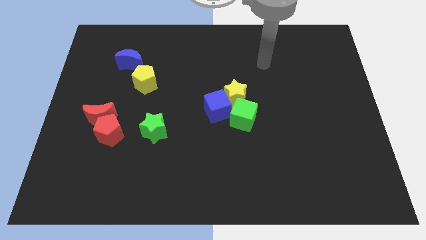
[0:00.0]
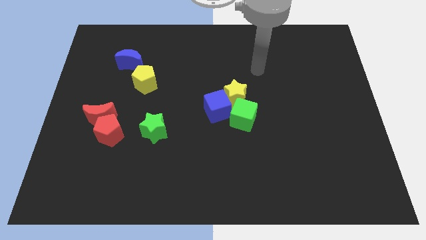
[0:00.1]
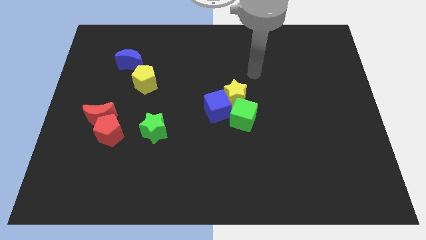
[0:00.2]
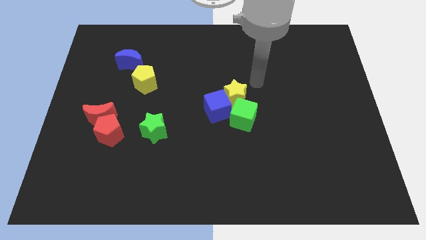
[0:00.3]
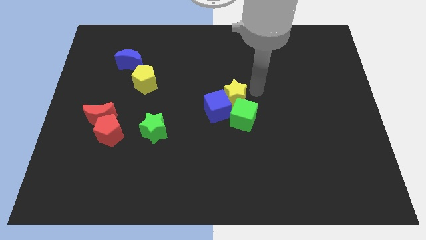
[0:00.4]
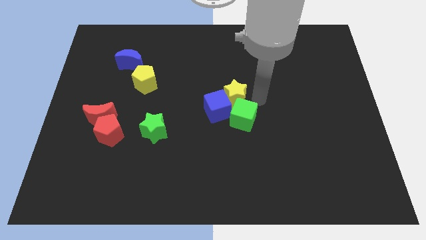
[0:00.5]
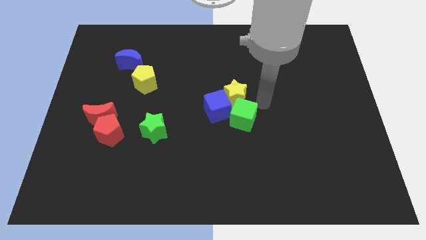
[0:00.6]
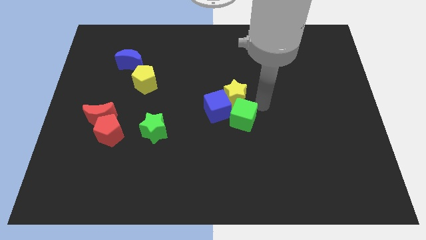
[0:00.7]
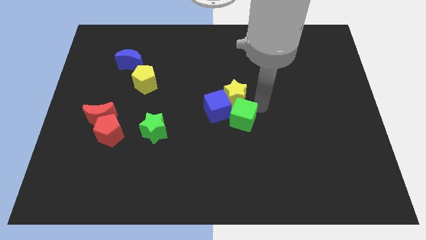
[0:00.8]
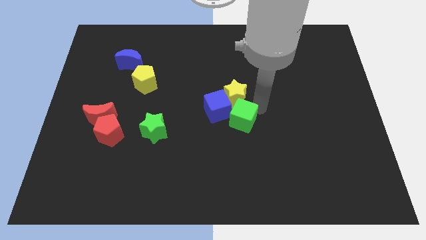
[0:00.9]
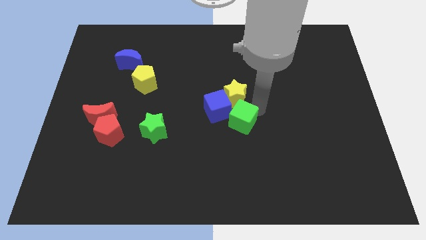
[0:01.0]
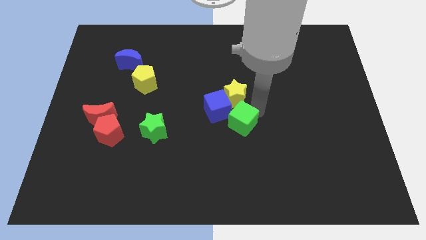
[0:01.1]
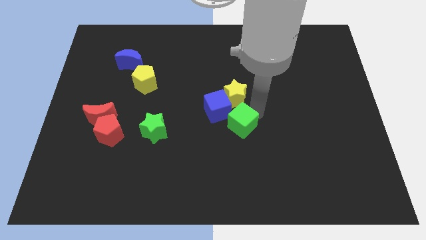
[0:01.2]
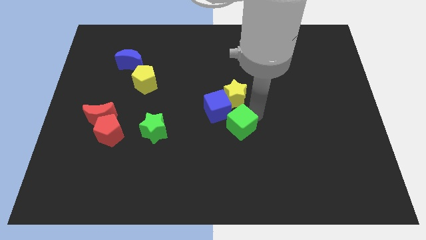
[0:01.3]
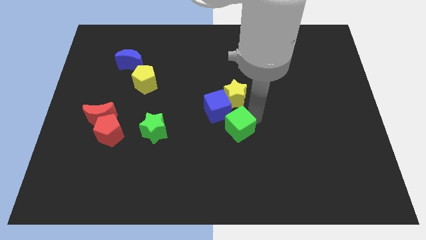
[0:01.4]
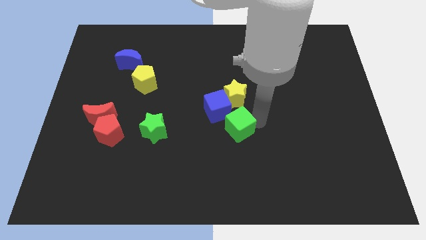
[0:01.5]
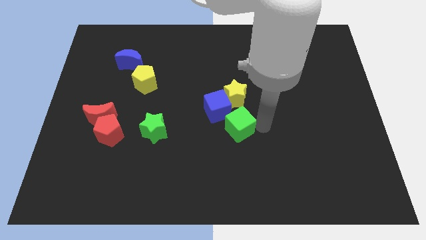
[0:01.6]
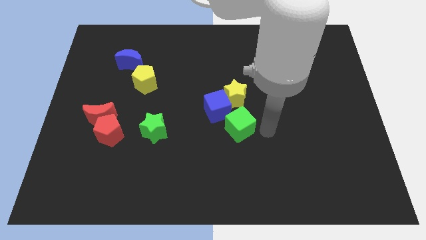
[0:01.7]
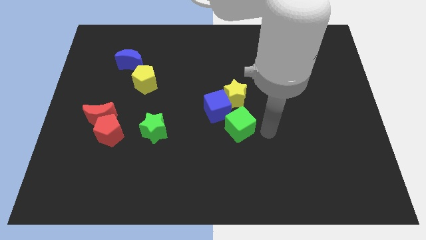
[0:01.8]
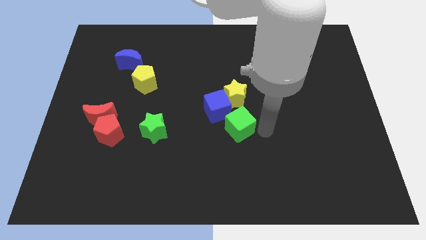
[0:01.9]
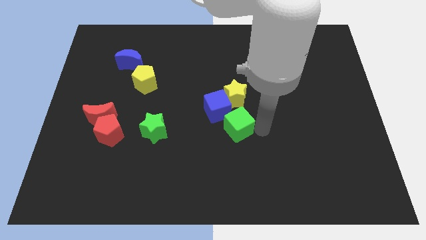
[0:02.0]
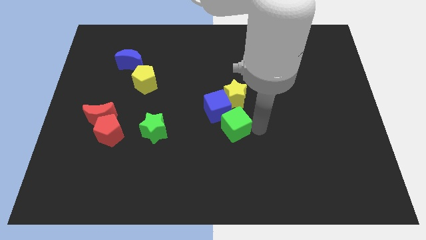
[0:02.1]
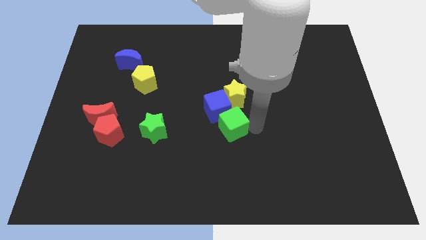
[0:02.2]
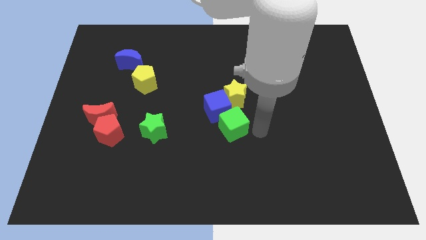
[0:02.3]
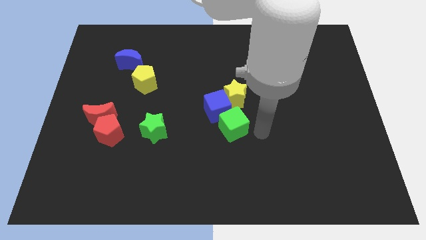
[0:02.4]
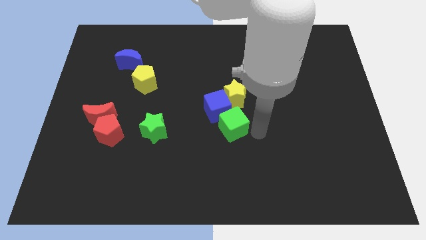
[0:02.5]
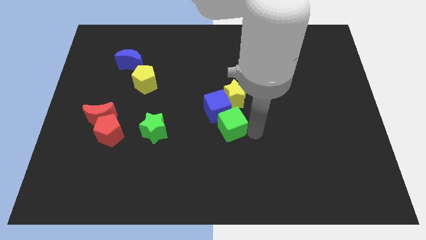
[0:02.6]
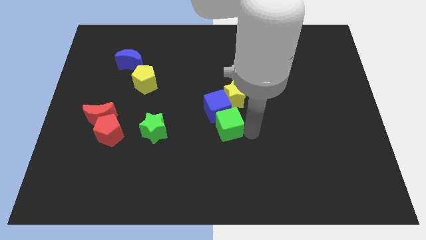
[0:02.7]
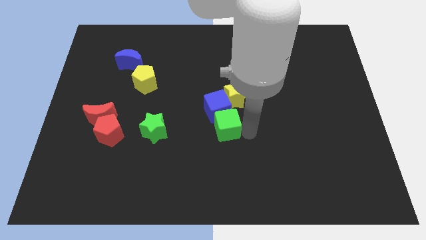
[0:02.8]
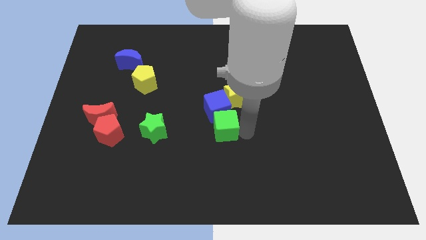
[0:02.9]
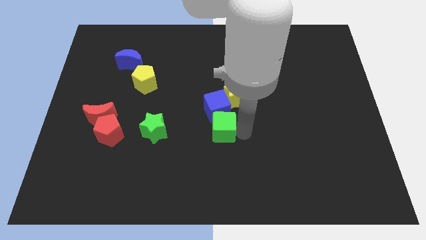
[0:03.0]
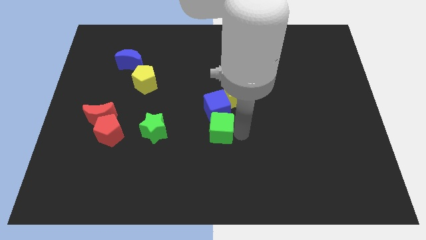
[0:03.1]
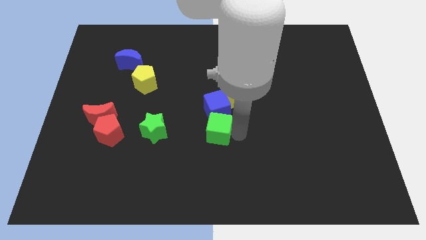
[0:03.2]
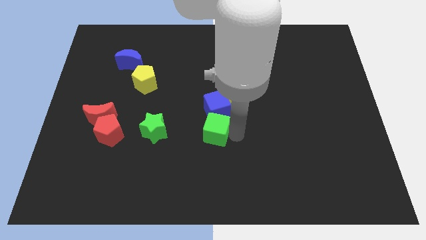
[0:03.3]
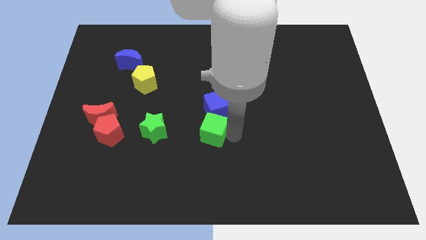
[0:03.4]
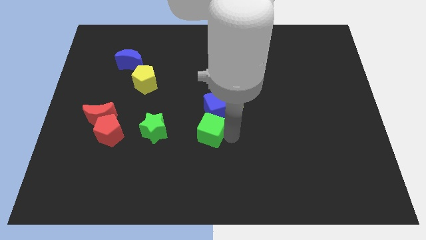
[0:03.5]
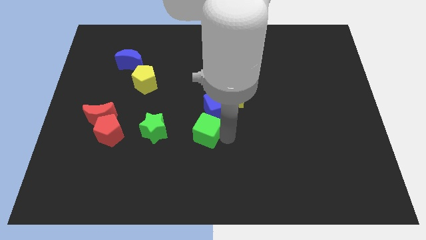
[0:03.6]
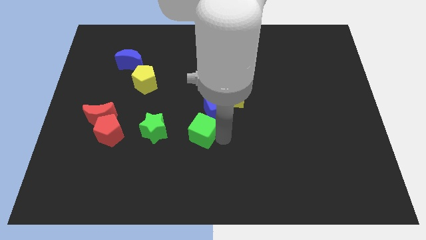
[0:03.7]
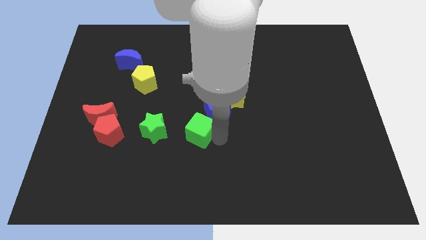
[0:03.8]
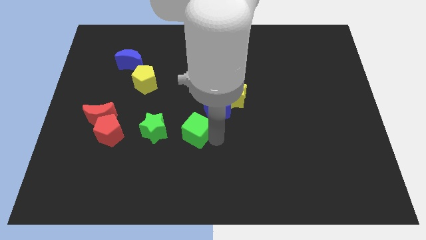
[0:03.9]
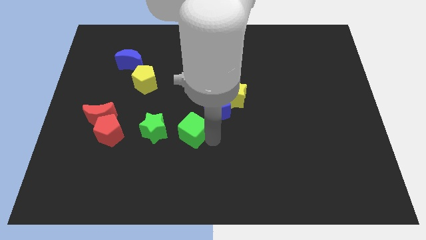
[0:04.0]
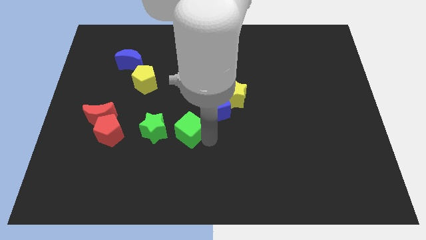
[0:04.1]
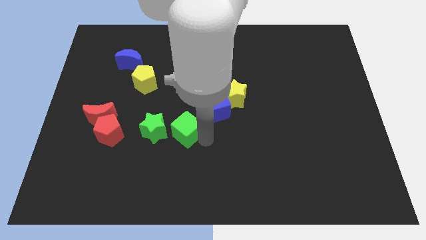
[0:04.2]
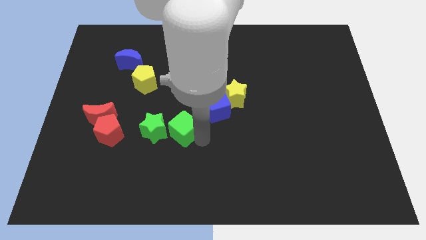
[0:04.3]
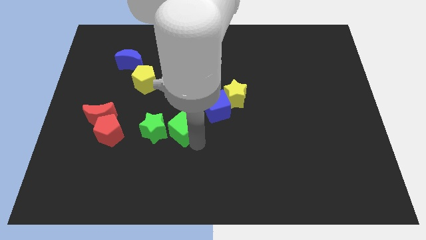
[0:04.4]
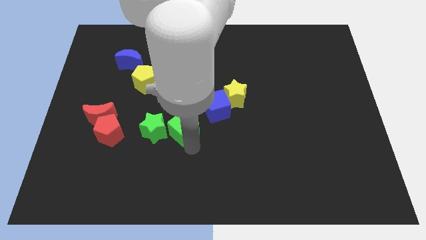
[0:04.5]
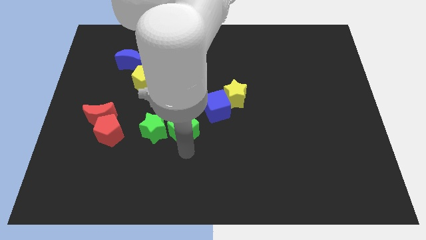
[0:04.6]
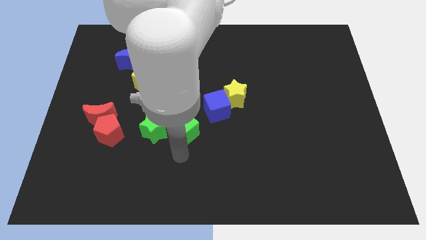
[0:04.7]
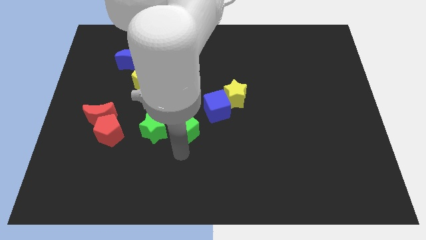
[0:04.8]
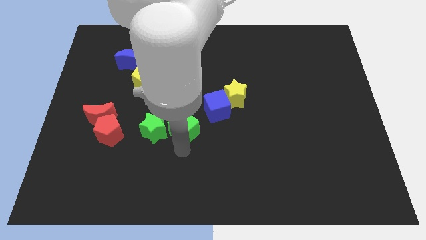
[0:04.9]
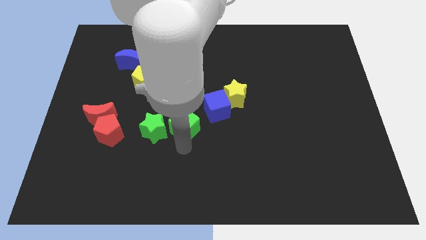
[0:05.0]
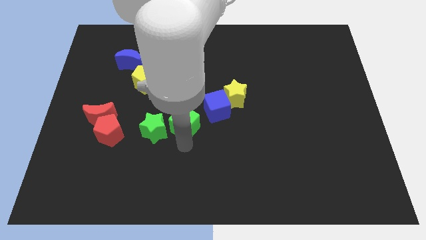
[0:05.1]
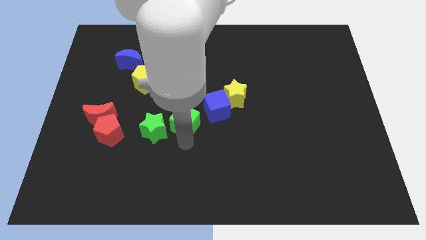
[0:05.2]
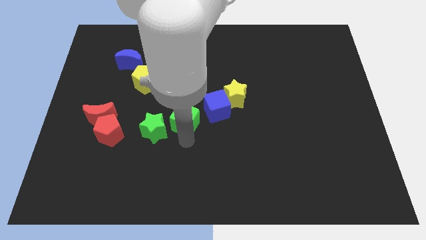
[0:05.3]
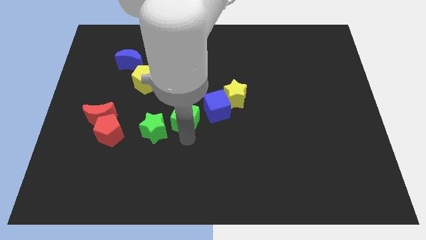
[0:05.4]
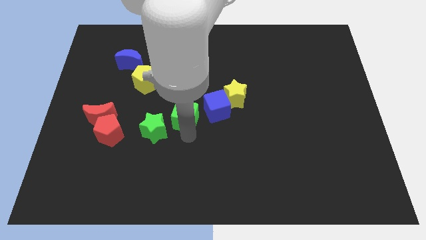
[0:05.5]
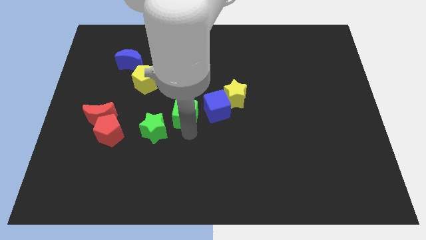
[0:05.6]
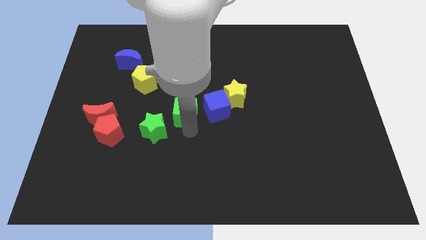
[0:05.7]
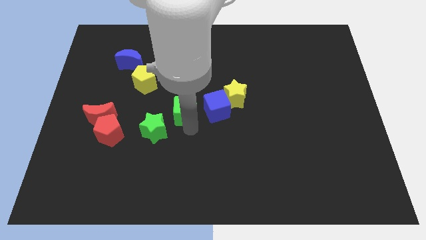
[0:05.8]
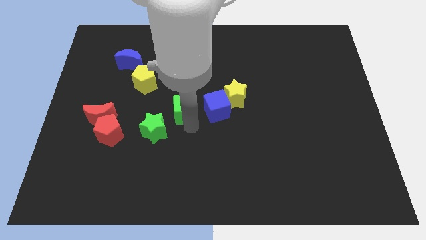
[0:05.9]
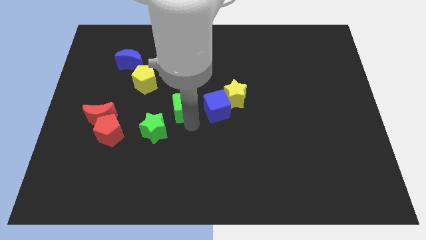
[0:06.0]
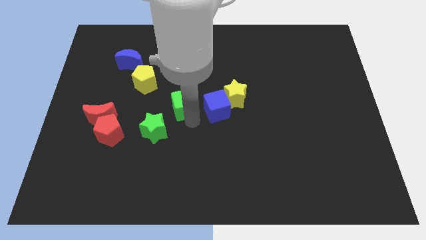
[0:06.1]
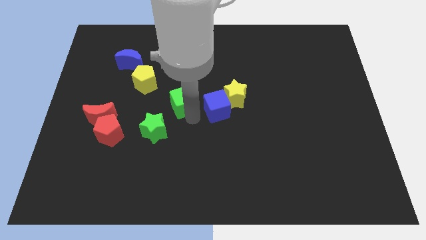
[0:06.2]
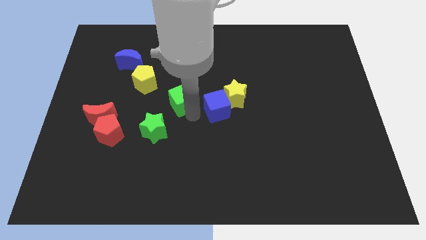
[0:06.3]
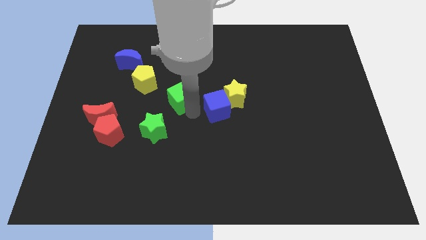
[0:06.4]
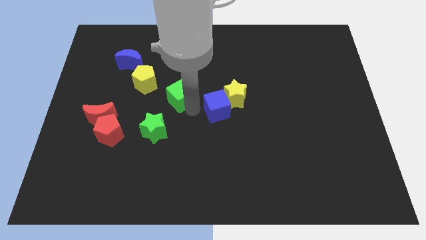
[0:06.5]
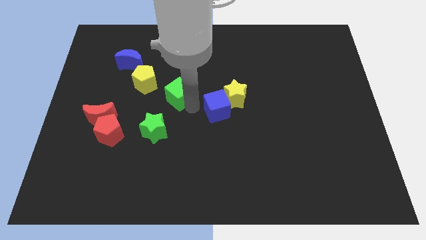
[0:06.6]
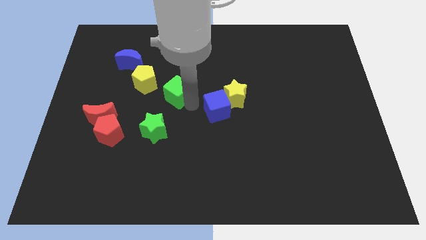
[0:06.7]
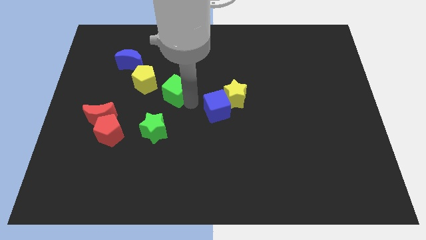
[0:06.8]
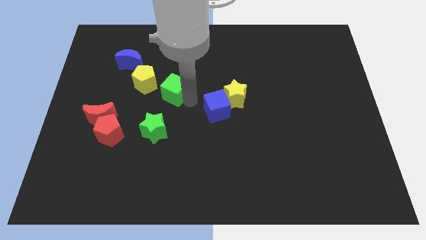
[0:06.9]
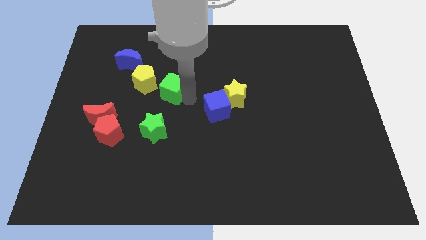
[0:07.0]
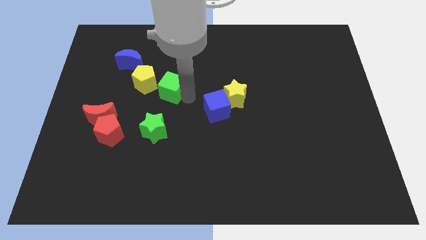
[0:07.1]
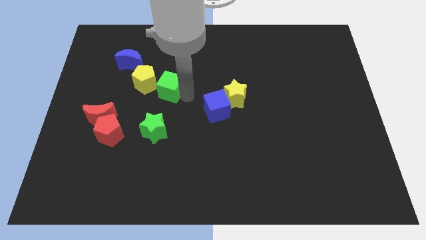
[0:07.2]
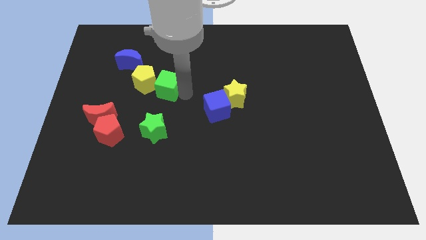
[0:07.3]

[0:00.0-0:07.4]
push the green cube towards the yellow pentagon
